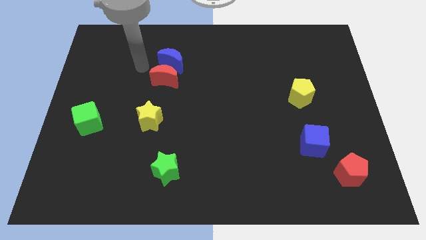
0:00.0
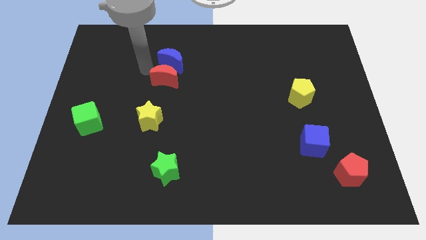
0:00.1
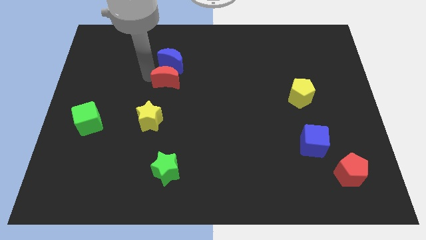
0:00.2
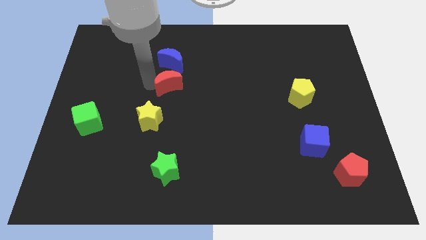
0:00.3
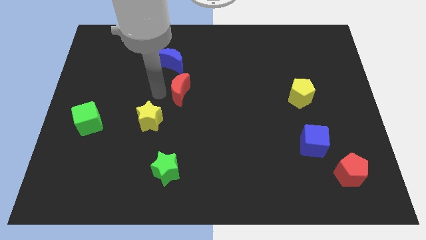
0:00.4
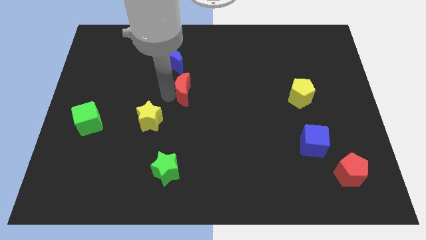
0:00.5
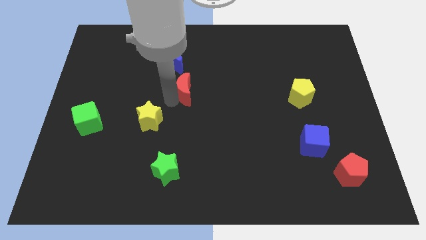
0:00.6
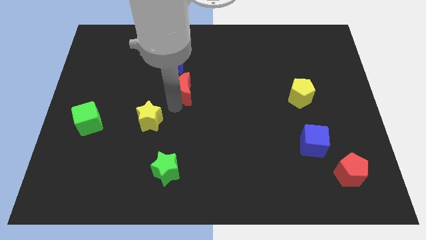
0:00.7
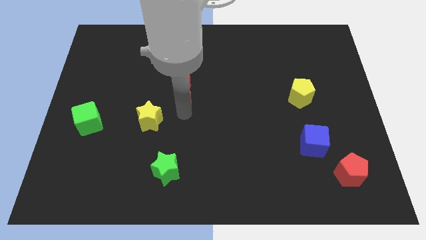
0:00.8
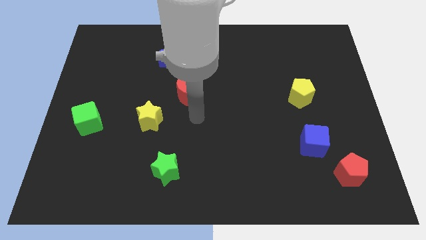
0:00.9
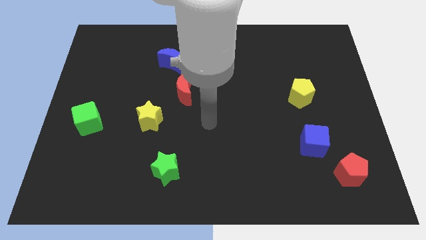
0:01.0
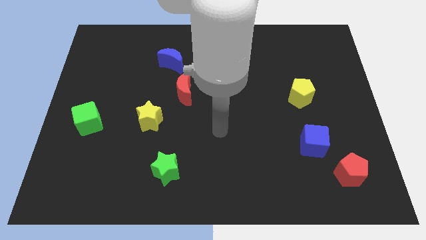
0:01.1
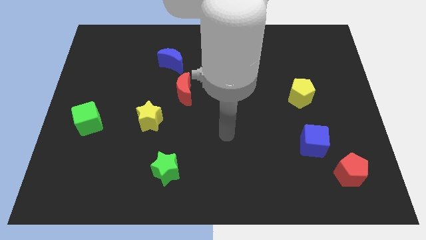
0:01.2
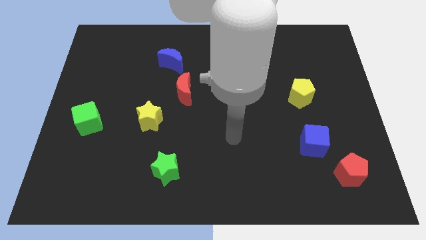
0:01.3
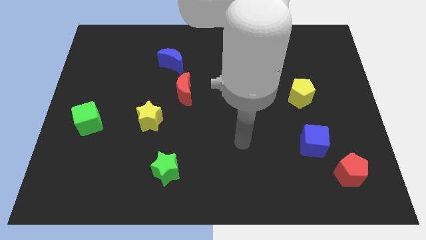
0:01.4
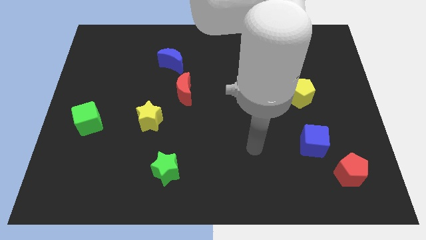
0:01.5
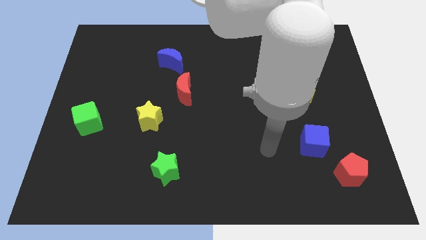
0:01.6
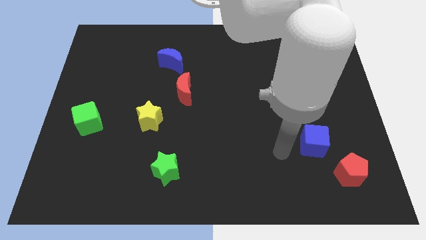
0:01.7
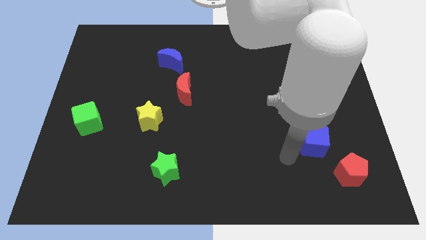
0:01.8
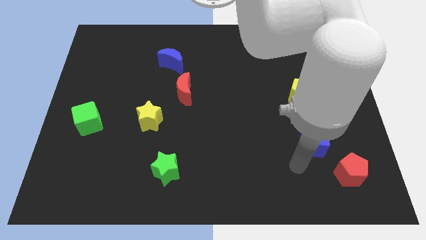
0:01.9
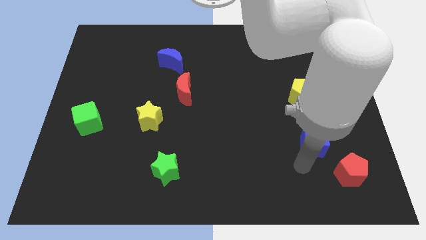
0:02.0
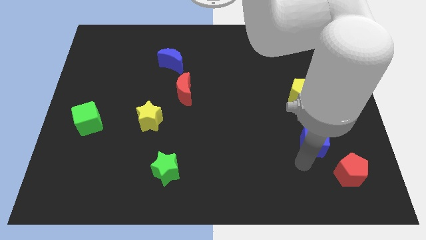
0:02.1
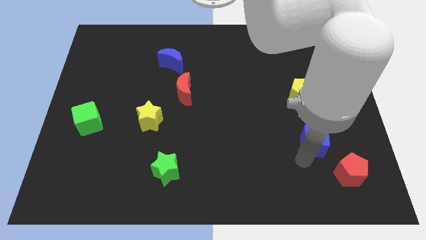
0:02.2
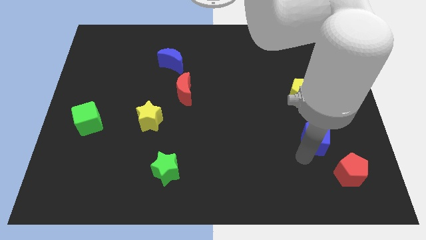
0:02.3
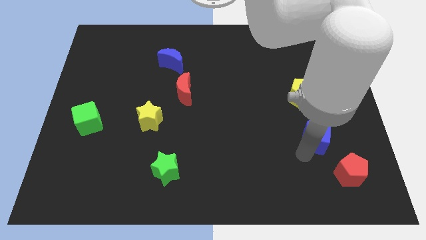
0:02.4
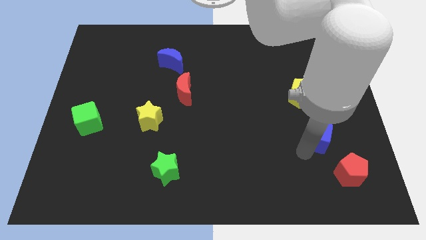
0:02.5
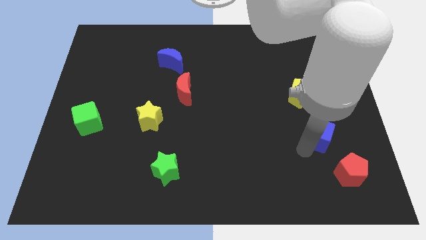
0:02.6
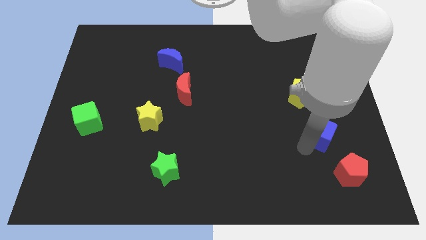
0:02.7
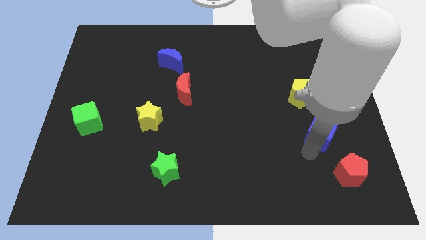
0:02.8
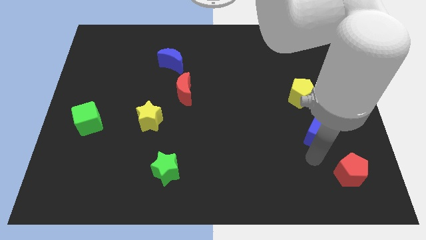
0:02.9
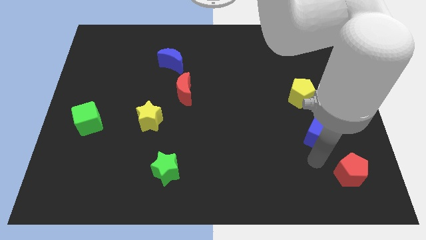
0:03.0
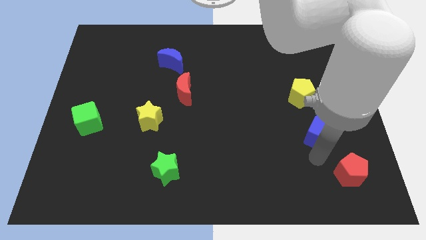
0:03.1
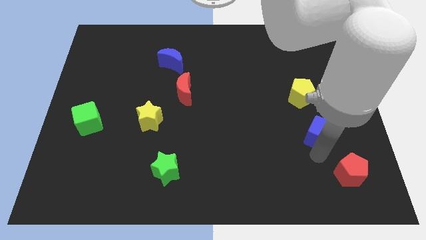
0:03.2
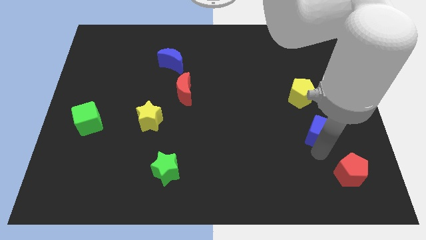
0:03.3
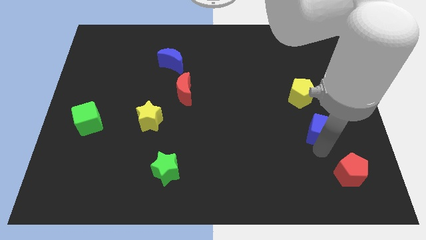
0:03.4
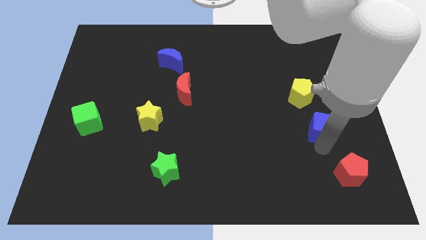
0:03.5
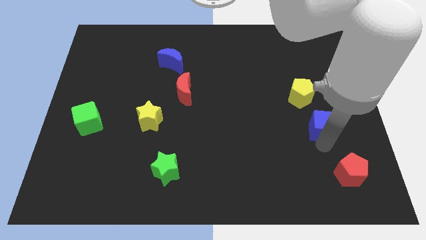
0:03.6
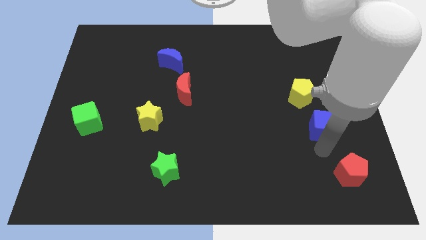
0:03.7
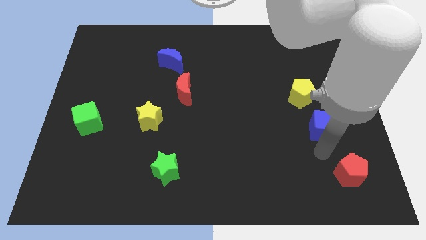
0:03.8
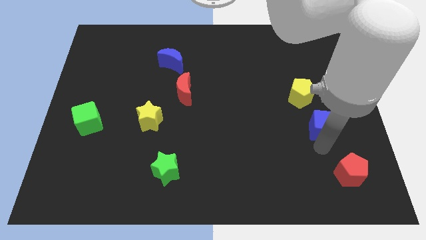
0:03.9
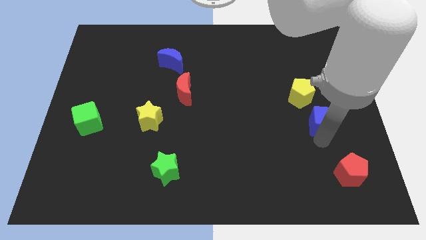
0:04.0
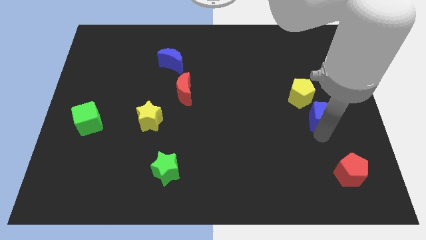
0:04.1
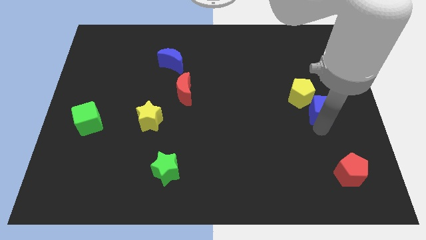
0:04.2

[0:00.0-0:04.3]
move the blue cube upwards somewhat

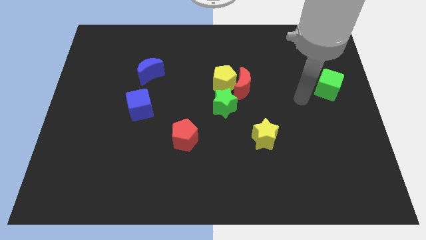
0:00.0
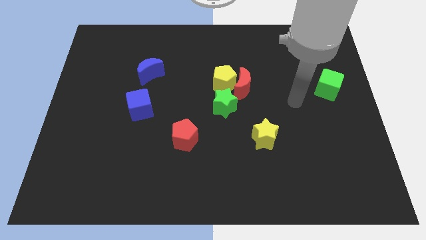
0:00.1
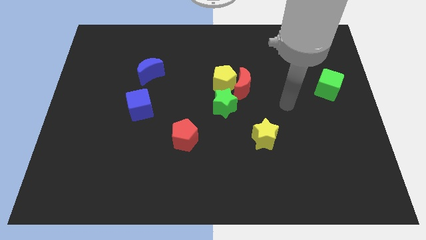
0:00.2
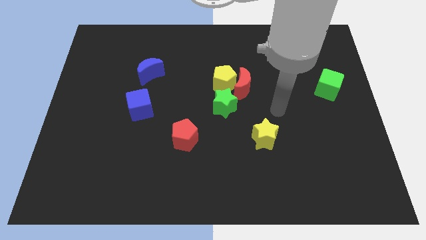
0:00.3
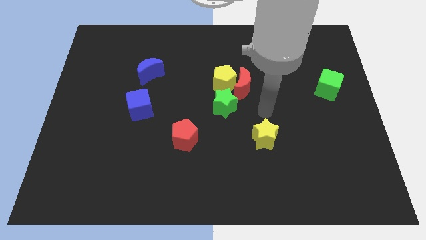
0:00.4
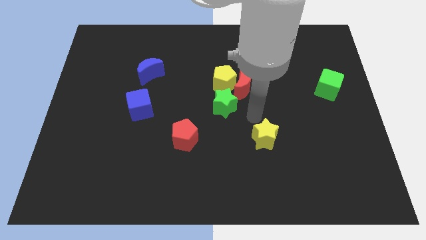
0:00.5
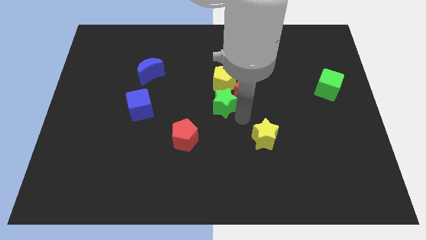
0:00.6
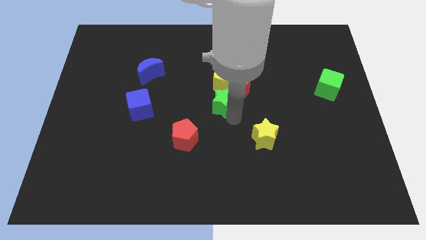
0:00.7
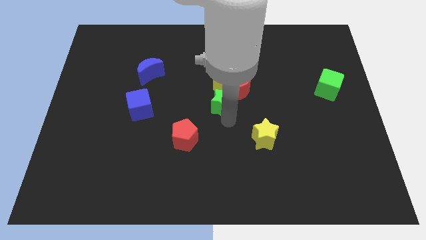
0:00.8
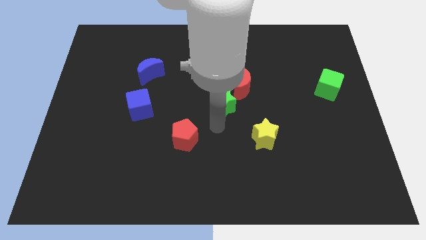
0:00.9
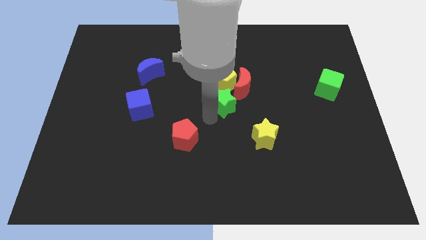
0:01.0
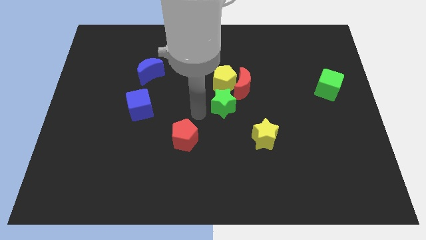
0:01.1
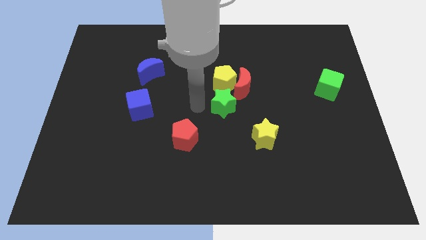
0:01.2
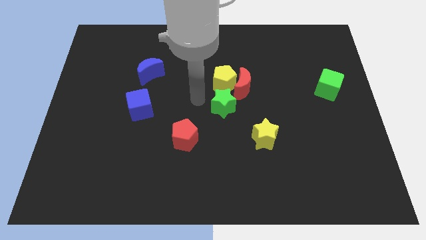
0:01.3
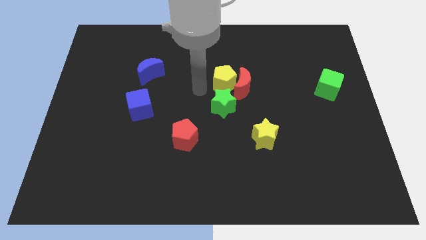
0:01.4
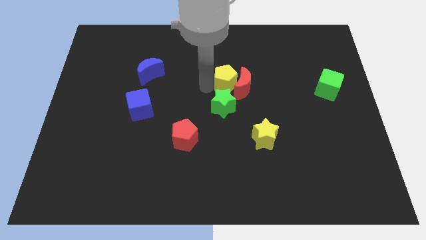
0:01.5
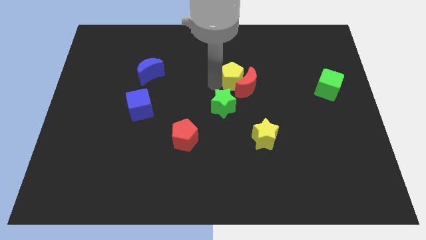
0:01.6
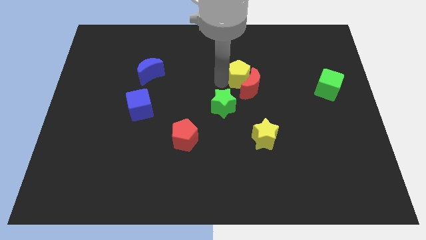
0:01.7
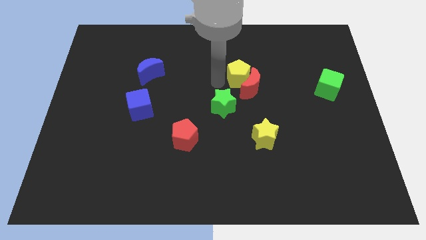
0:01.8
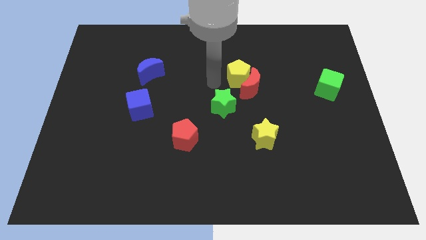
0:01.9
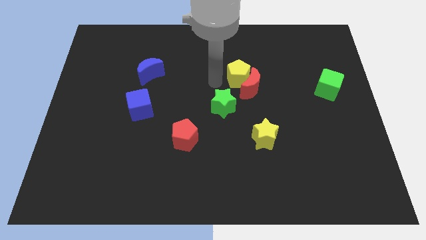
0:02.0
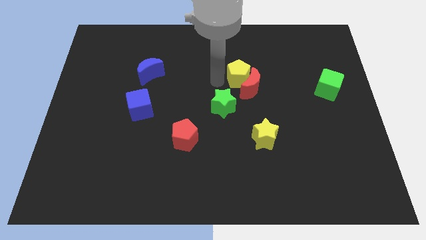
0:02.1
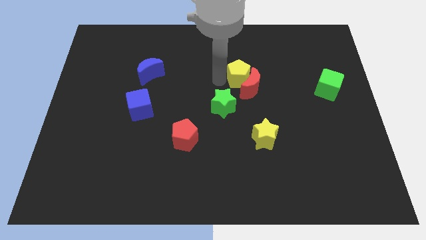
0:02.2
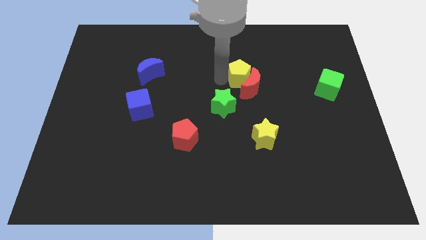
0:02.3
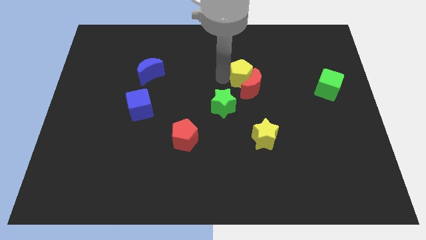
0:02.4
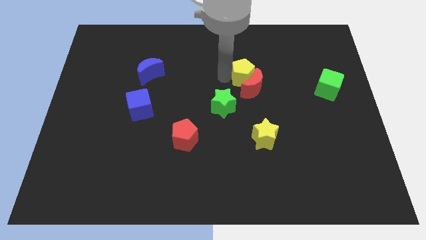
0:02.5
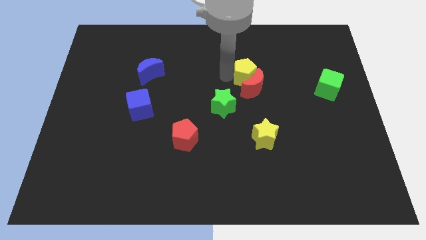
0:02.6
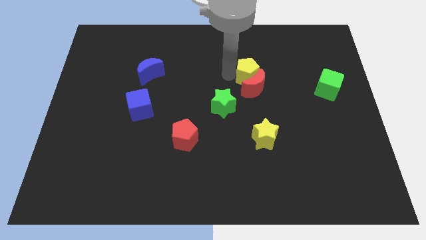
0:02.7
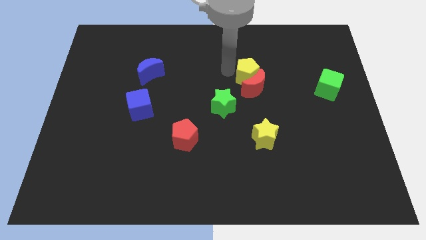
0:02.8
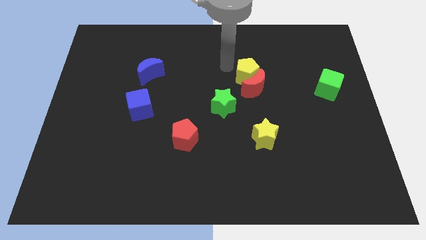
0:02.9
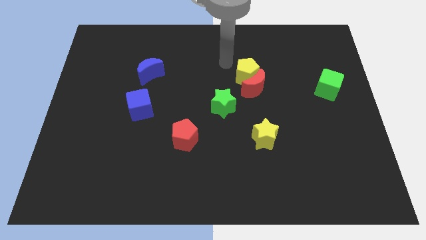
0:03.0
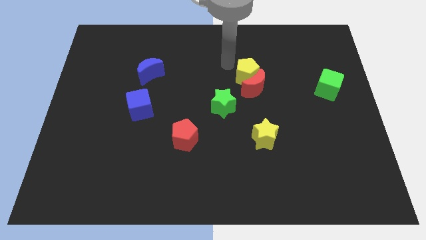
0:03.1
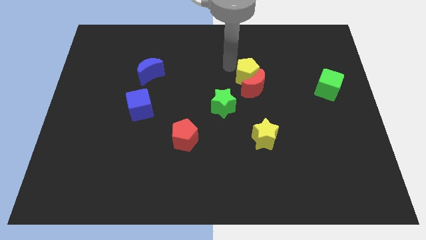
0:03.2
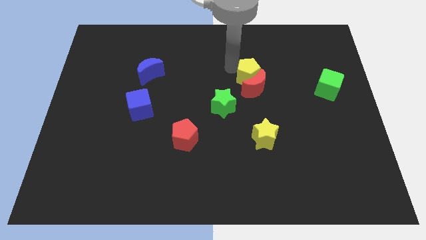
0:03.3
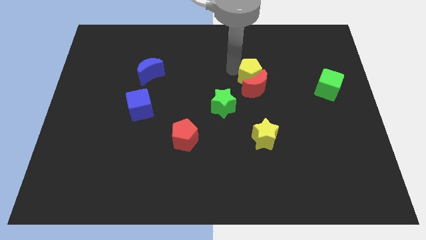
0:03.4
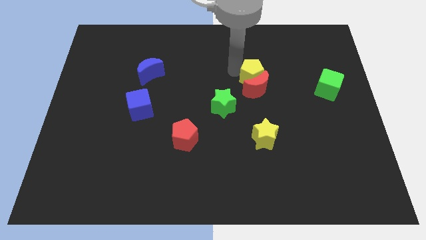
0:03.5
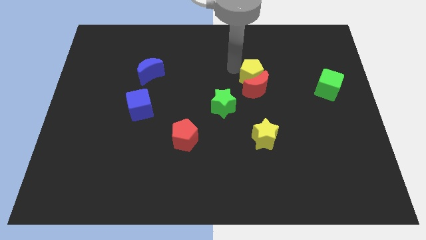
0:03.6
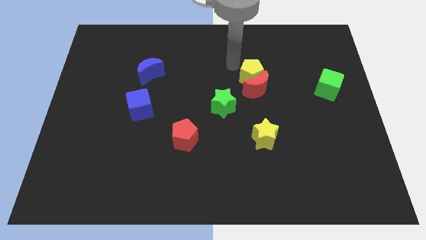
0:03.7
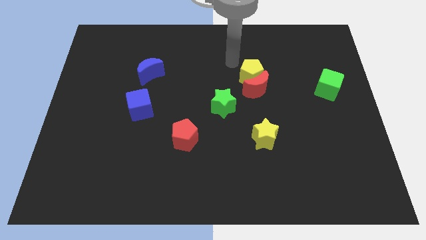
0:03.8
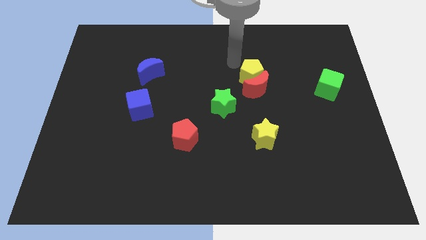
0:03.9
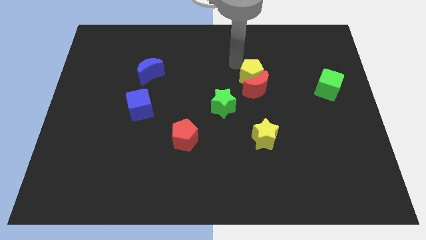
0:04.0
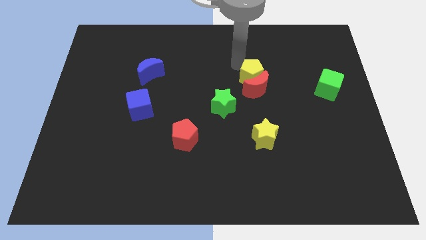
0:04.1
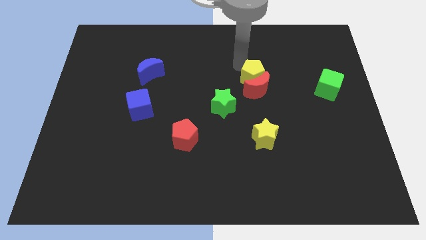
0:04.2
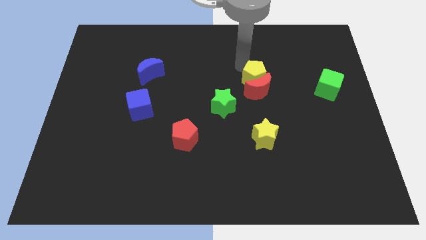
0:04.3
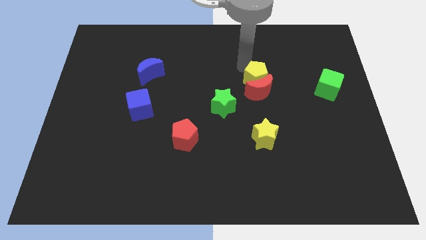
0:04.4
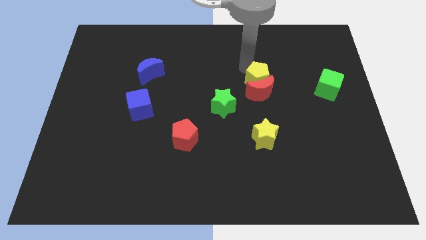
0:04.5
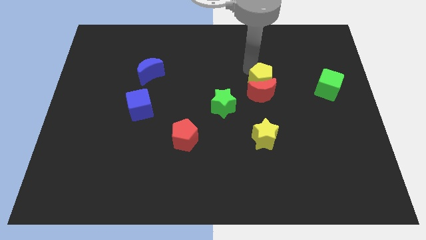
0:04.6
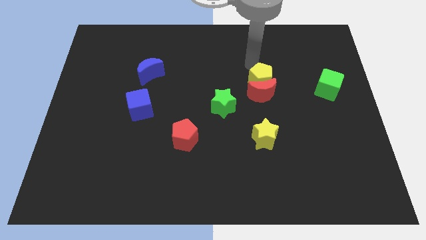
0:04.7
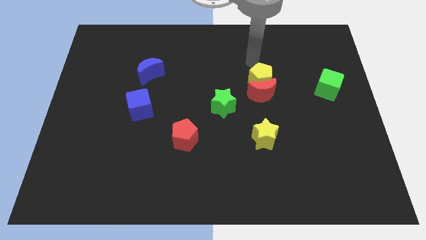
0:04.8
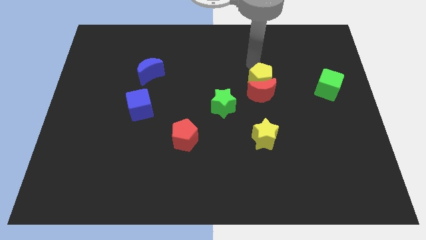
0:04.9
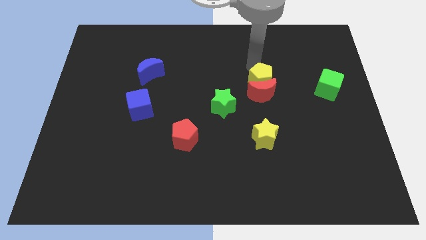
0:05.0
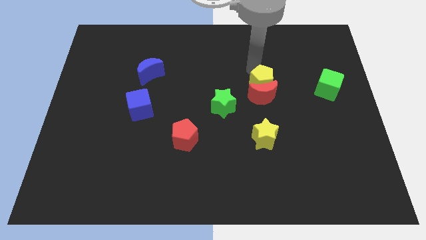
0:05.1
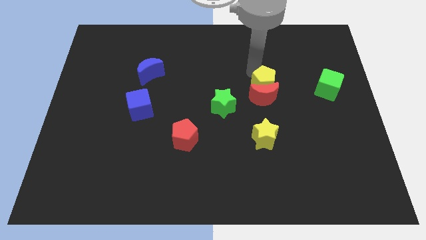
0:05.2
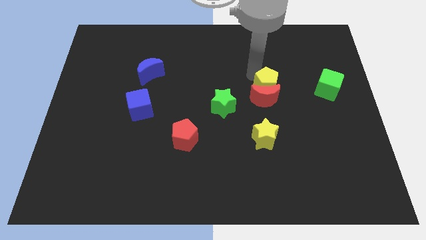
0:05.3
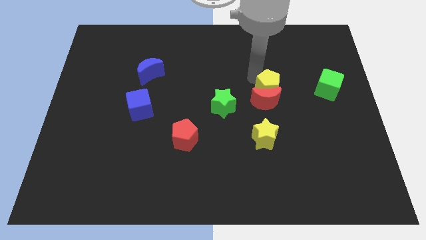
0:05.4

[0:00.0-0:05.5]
move the yellow pentagon downwards and to the right somewhat
